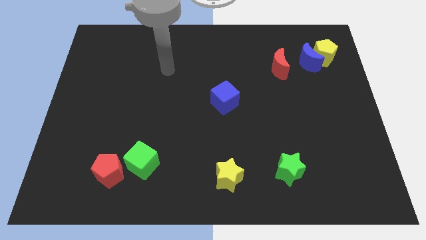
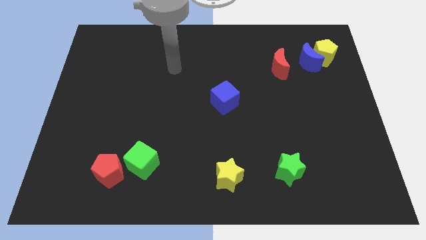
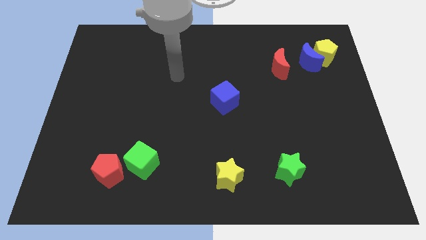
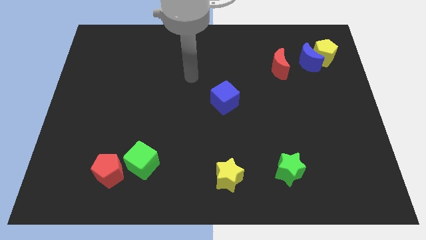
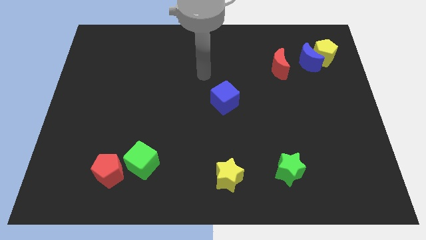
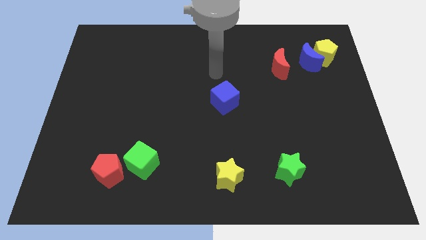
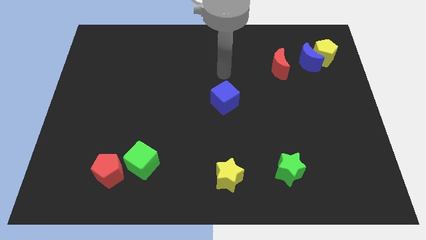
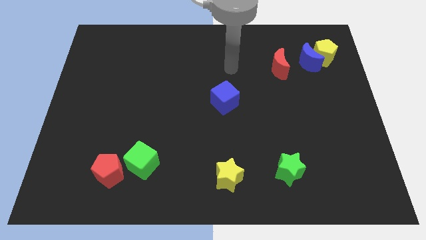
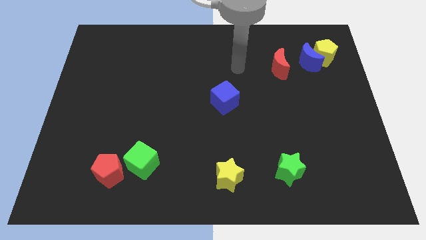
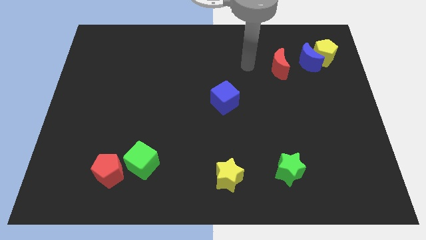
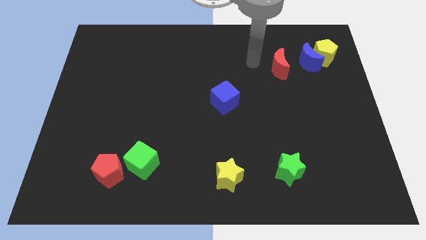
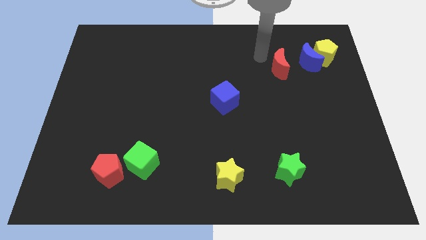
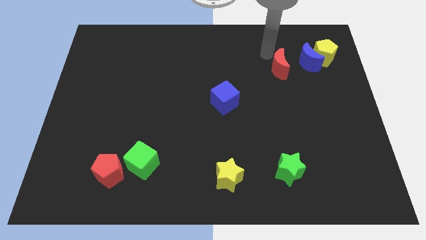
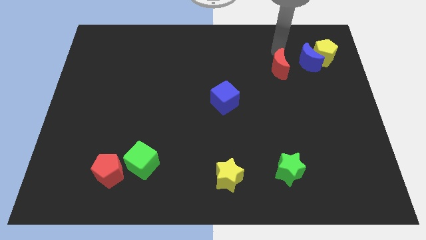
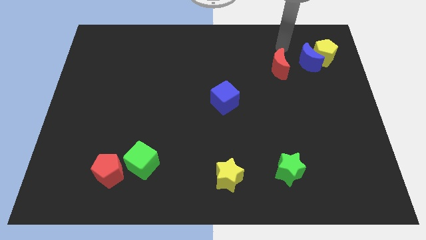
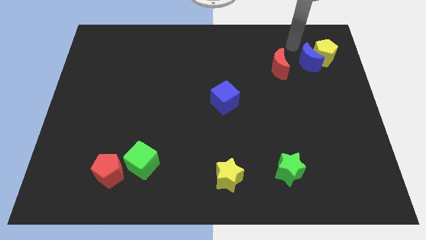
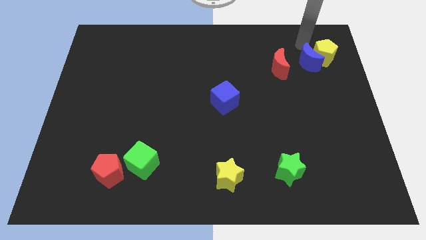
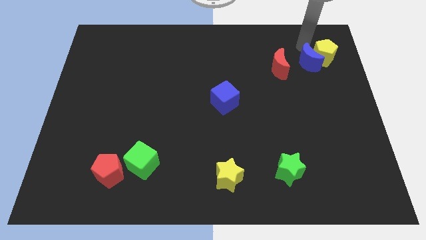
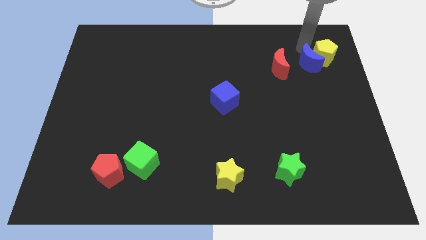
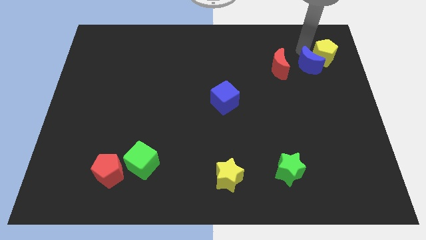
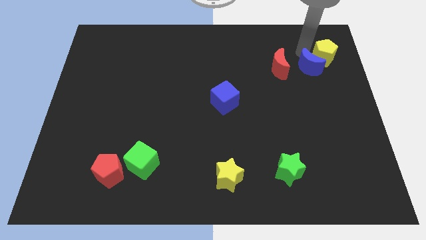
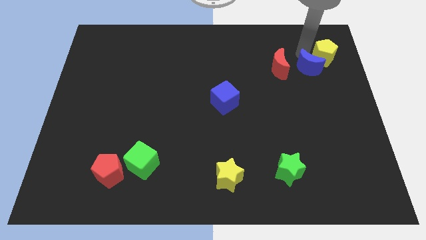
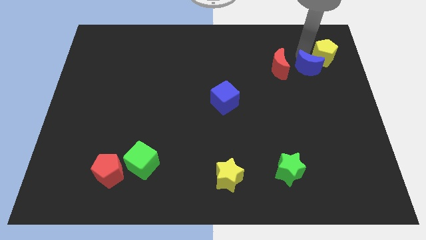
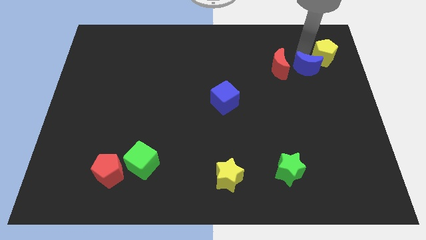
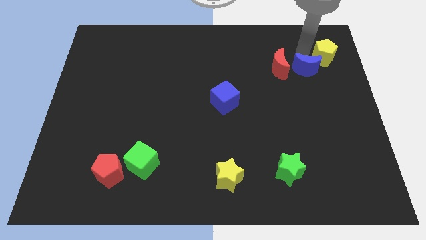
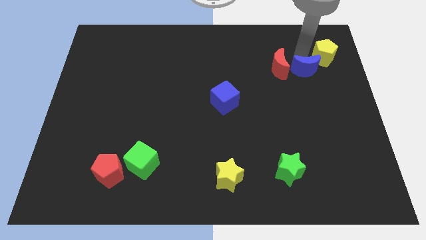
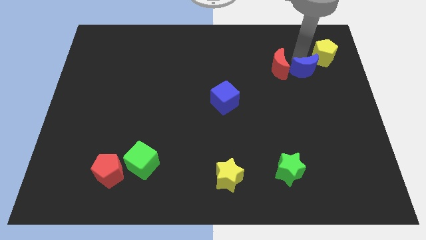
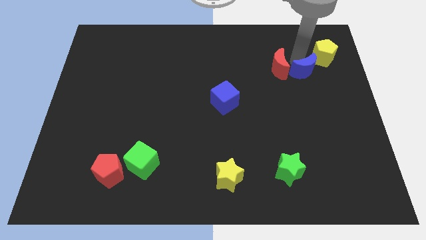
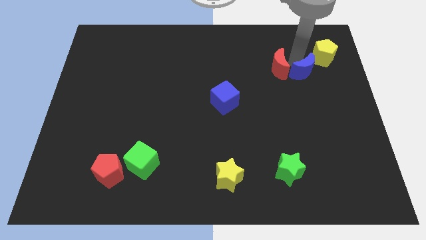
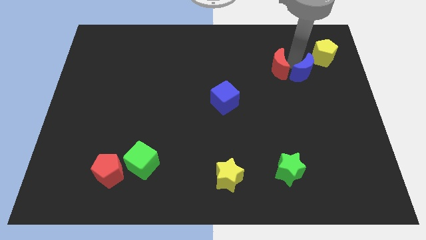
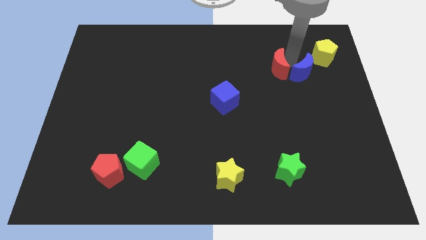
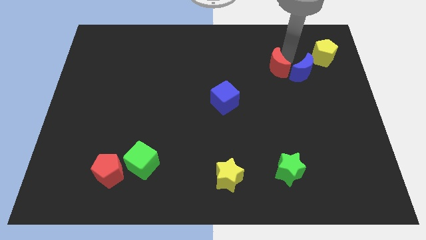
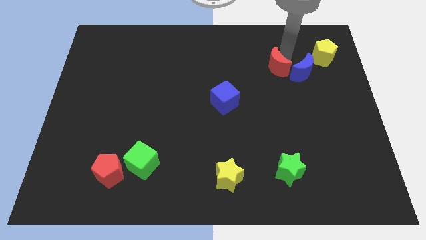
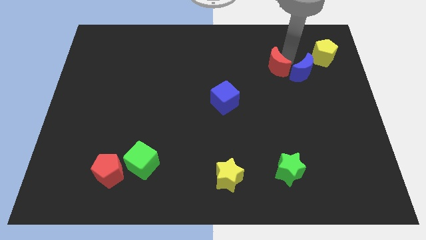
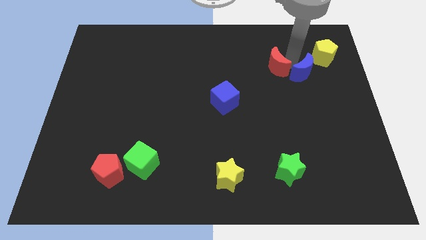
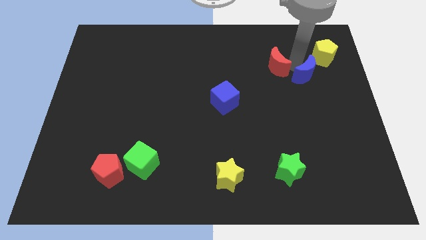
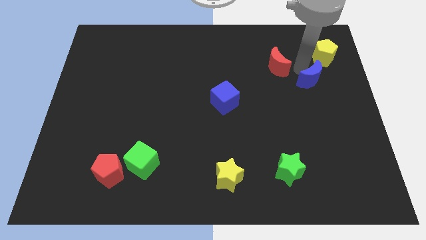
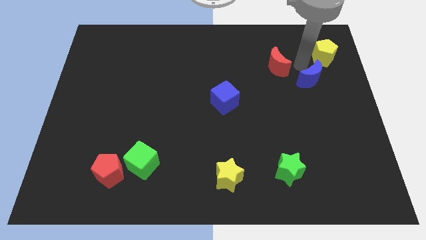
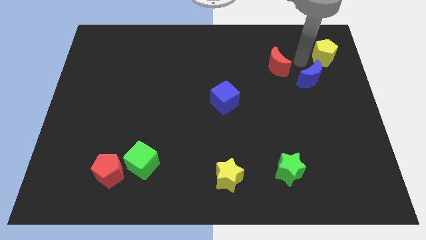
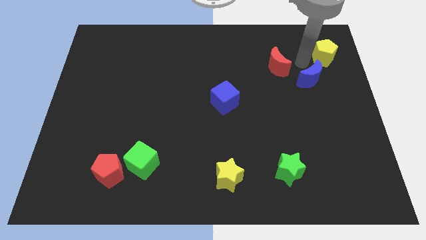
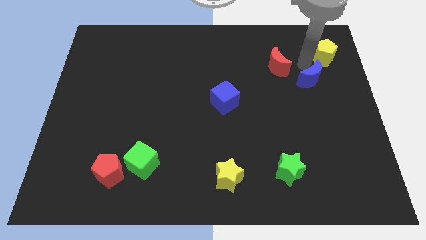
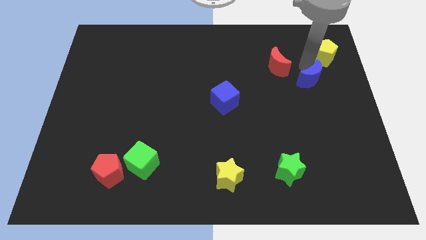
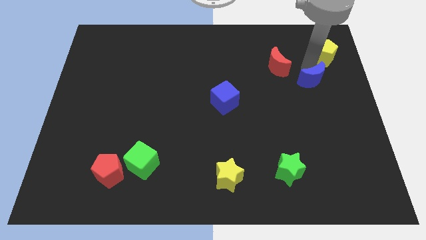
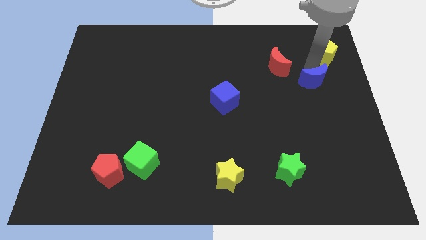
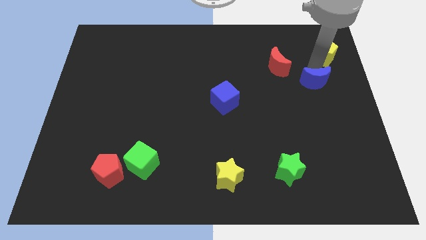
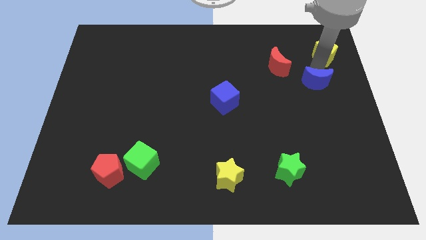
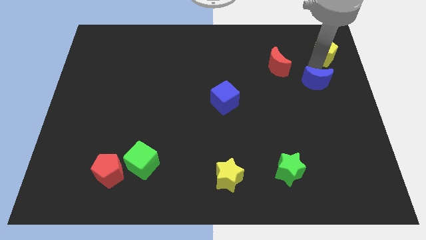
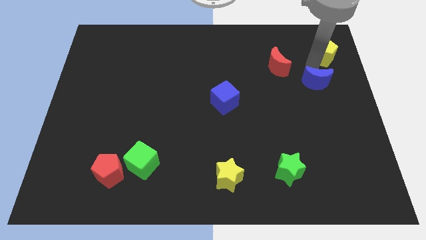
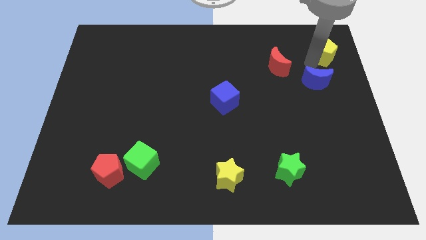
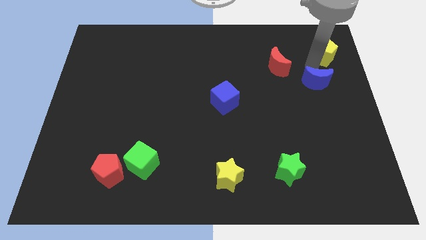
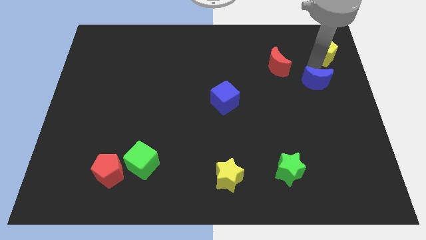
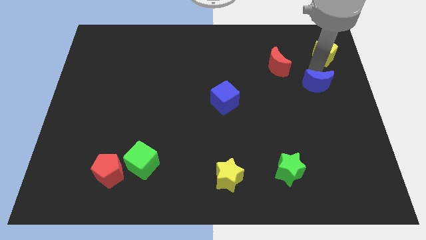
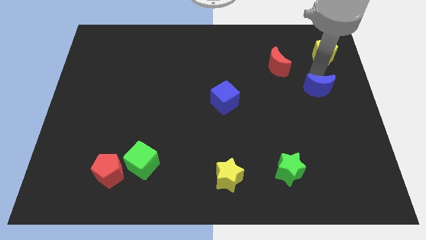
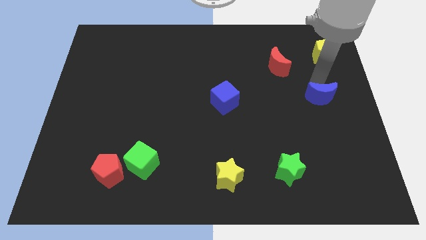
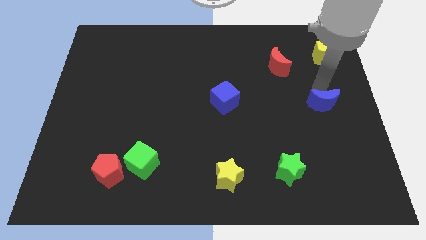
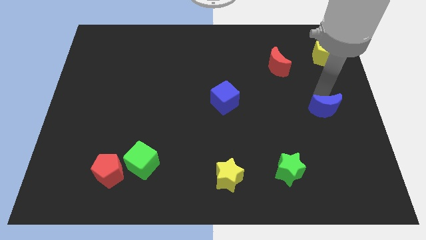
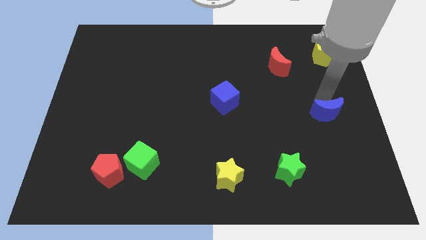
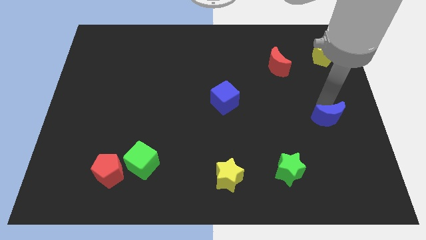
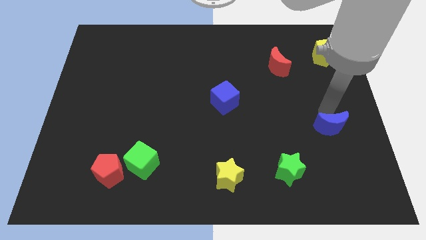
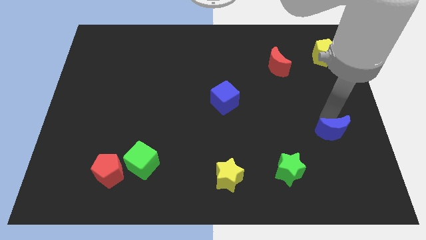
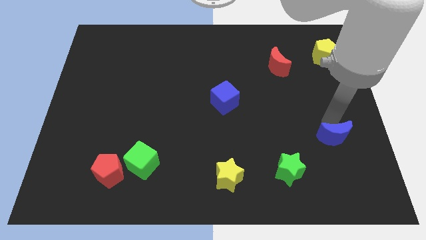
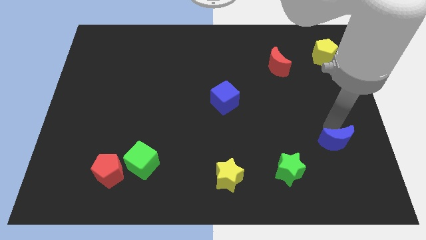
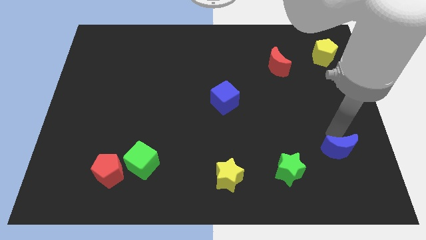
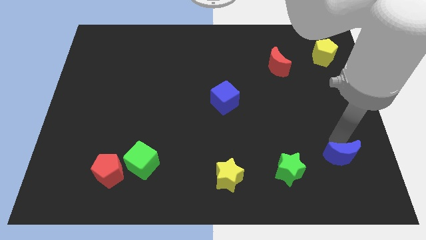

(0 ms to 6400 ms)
put the blue moon to the right of the green star

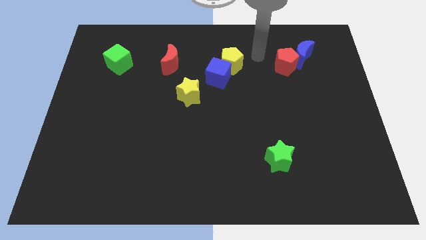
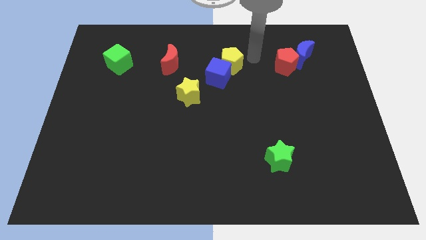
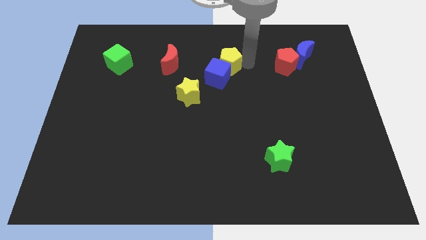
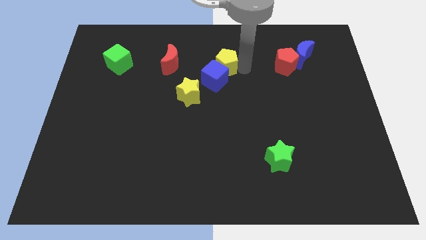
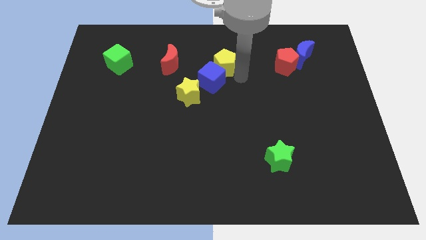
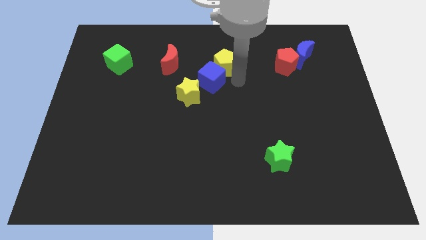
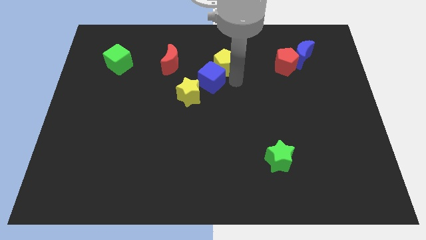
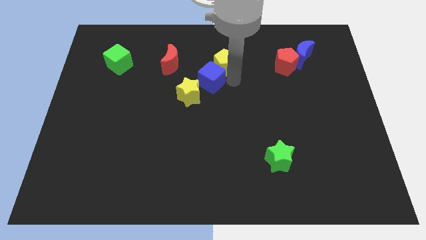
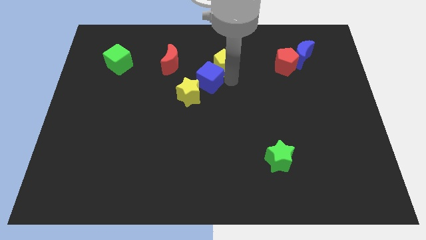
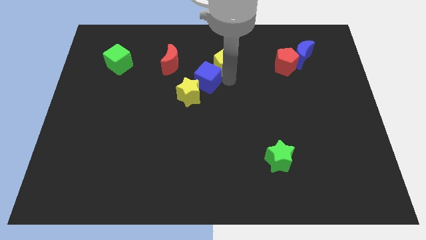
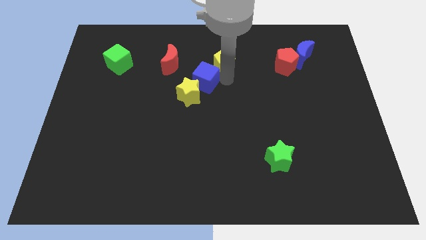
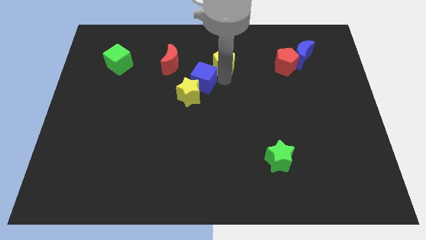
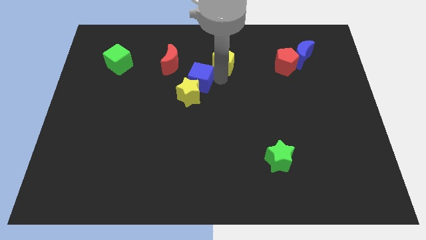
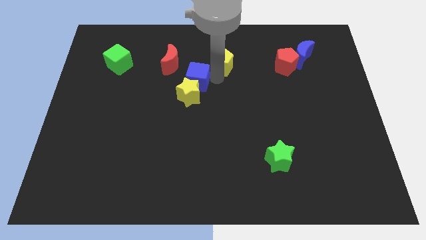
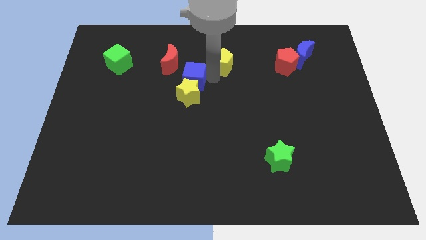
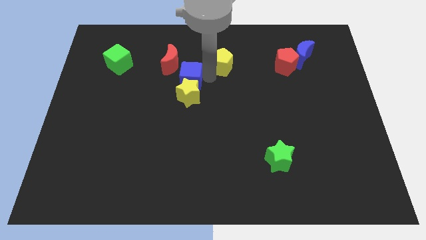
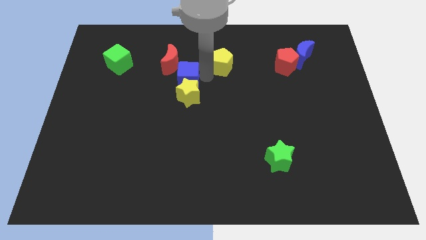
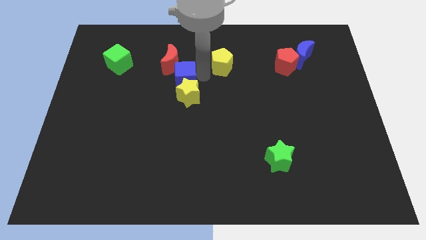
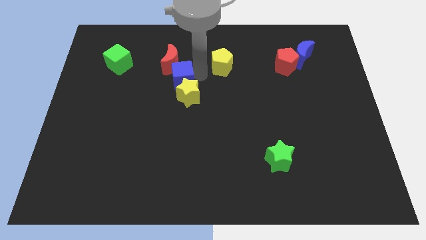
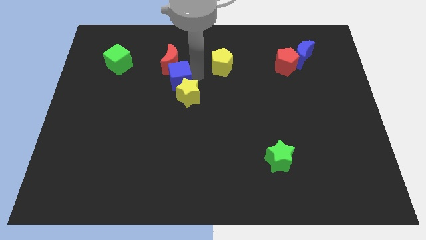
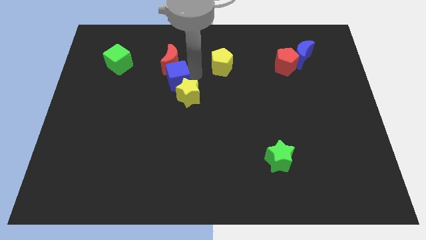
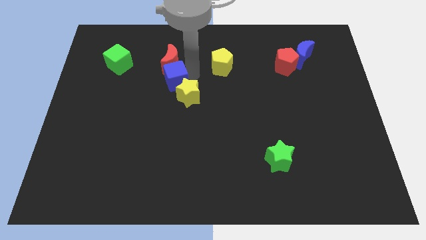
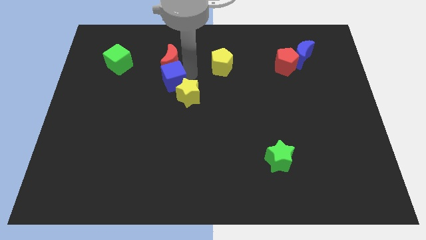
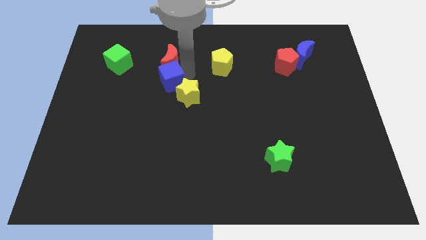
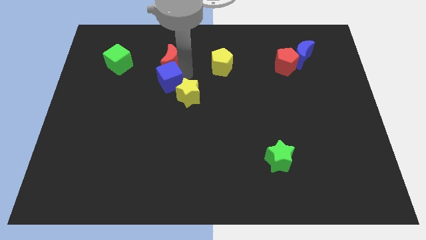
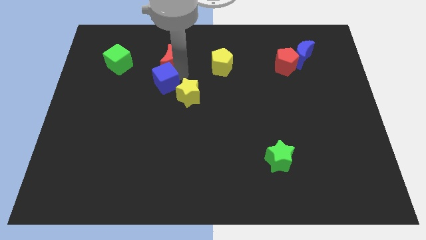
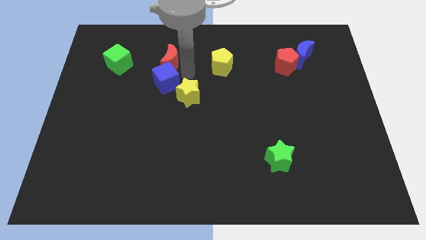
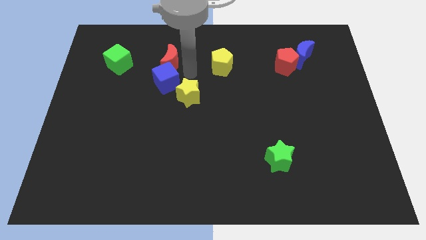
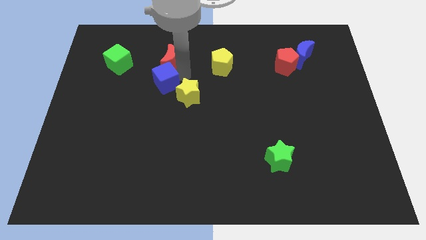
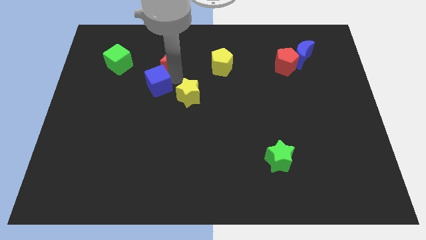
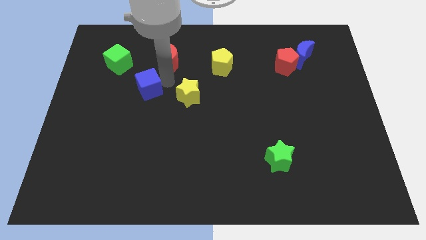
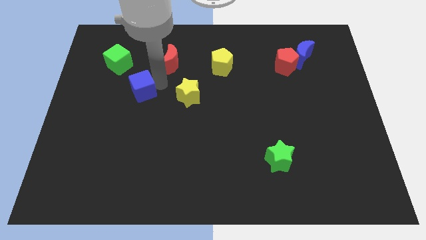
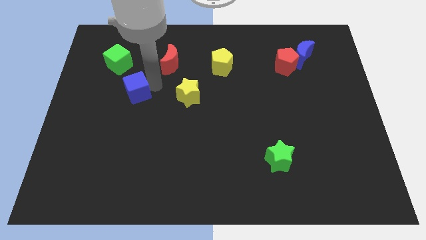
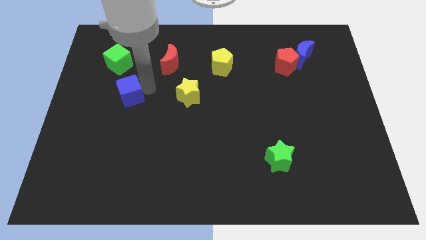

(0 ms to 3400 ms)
slide the blue cube below the green cube
